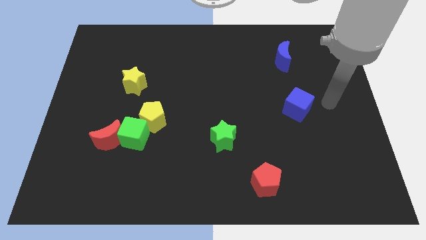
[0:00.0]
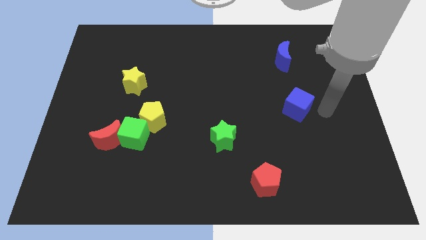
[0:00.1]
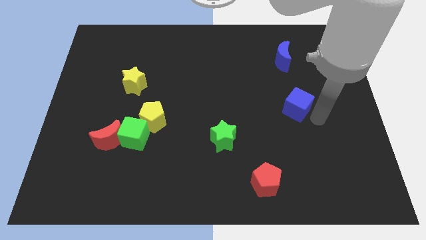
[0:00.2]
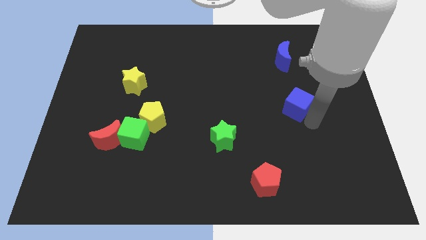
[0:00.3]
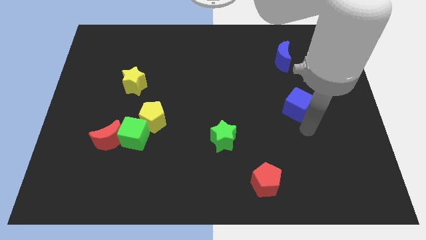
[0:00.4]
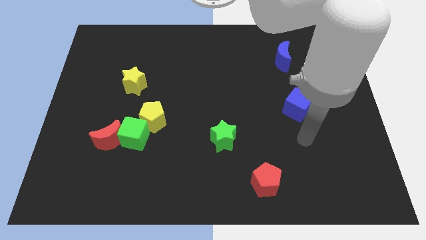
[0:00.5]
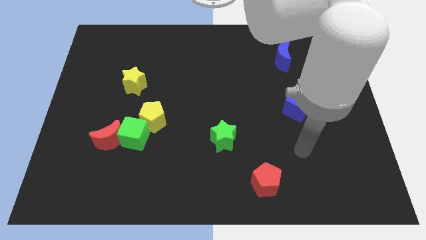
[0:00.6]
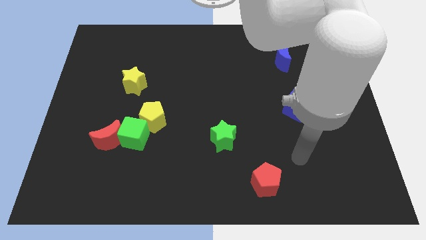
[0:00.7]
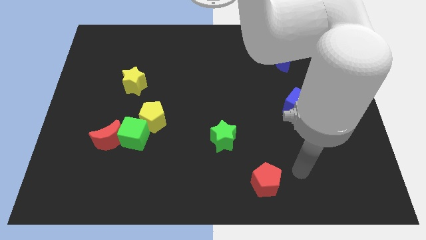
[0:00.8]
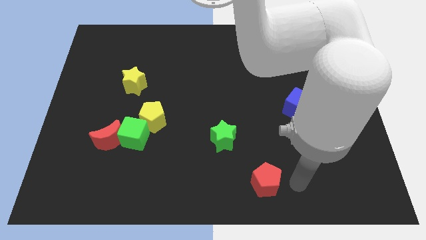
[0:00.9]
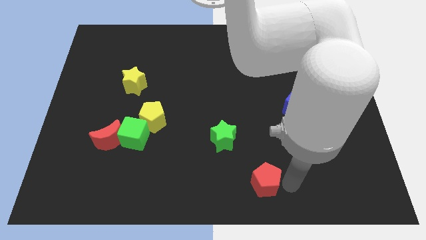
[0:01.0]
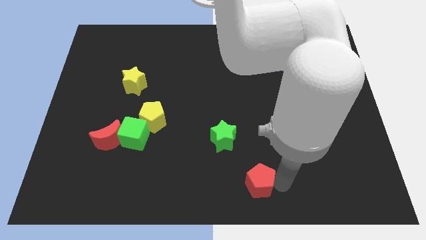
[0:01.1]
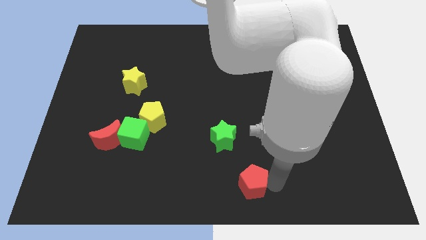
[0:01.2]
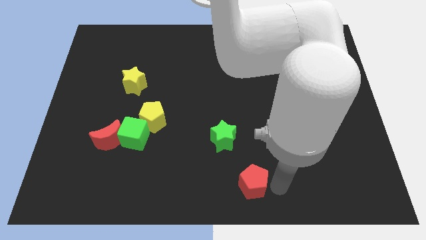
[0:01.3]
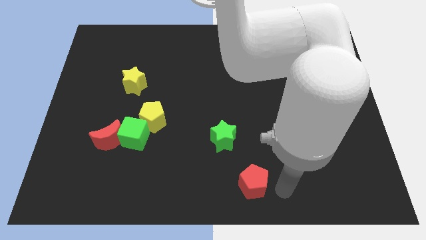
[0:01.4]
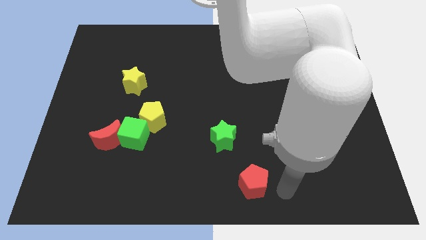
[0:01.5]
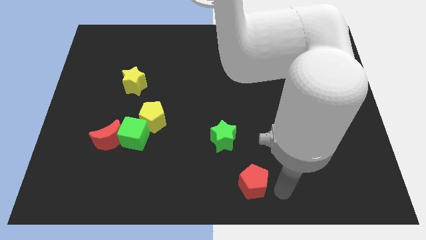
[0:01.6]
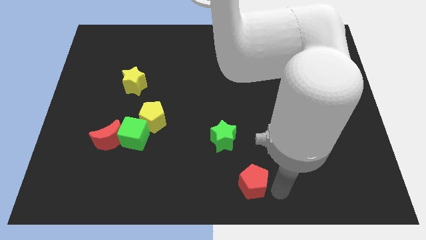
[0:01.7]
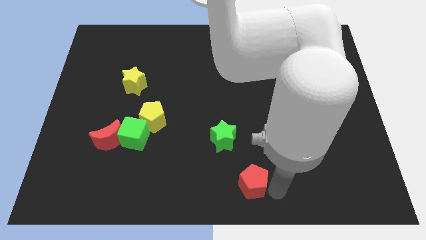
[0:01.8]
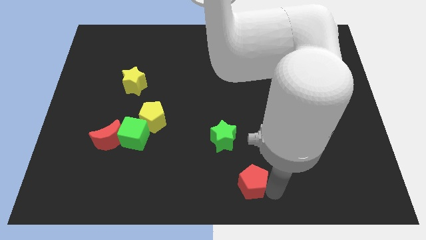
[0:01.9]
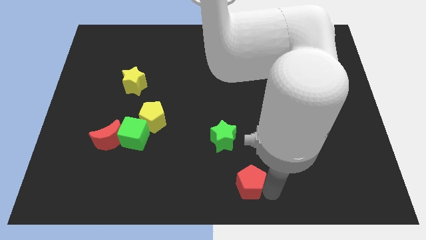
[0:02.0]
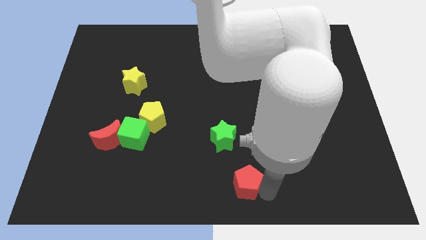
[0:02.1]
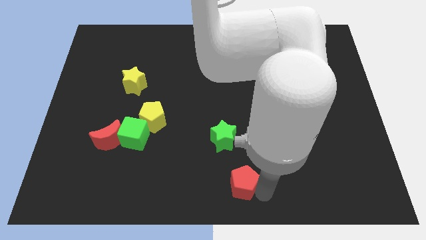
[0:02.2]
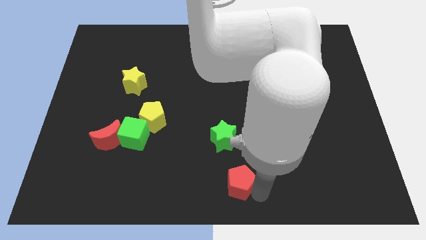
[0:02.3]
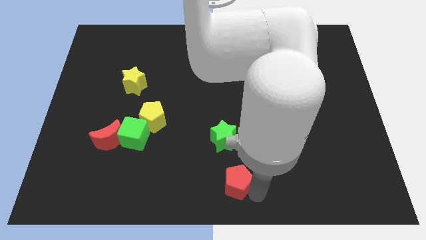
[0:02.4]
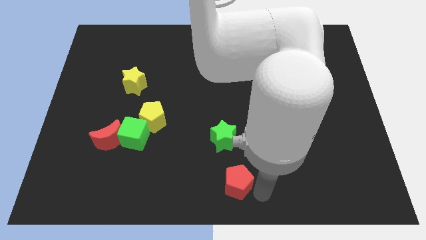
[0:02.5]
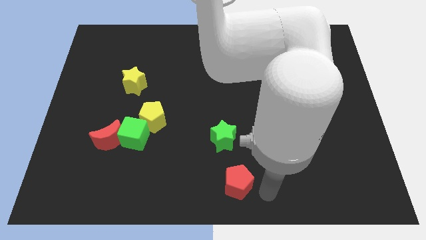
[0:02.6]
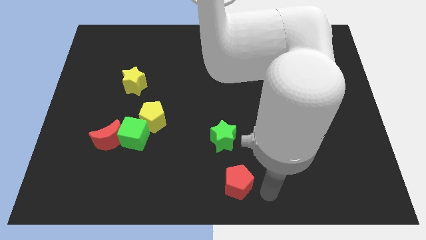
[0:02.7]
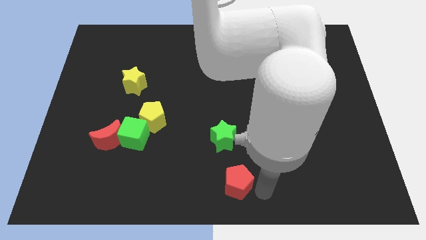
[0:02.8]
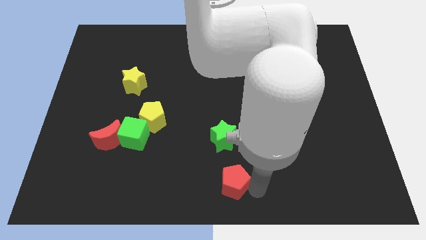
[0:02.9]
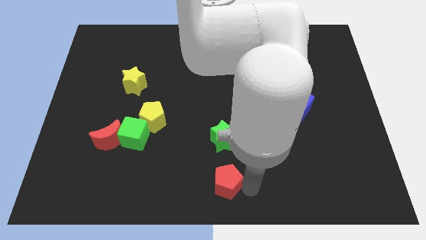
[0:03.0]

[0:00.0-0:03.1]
slightly push the red pentagon to the left

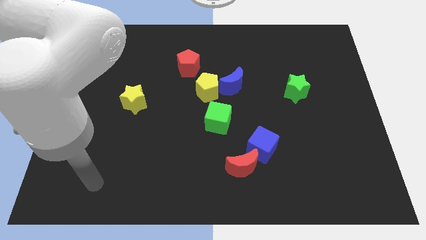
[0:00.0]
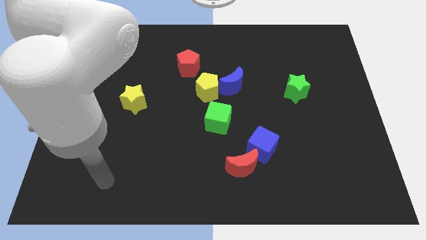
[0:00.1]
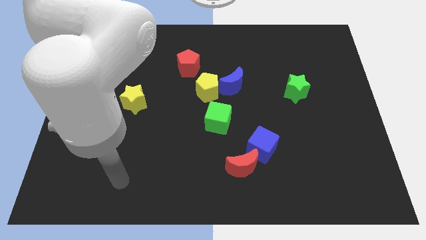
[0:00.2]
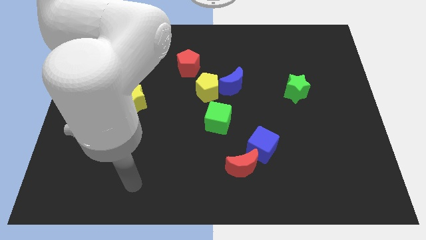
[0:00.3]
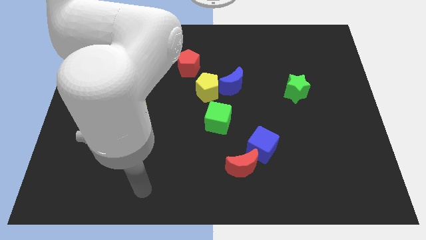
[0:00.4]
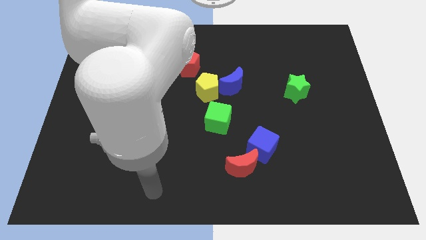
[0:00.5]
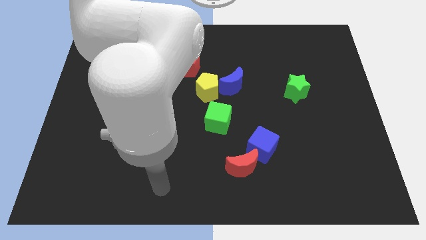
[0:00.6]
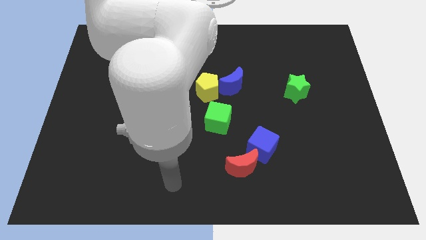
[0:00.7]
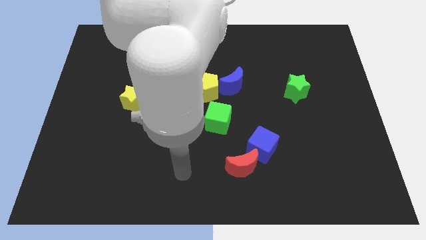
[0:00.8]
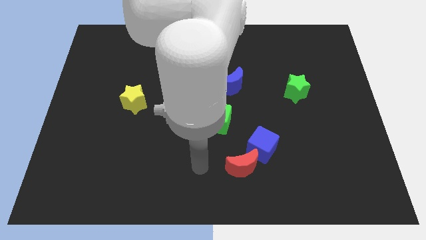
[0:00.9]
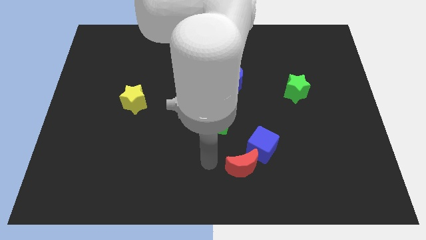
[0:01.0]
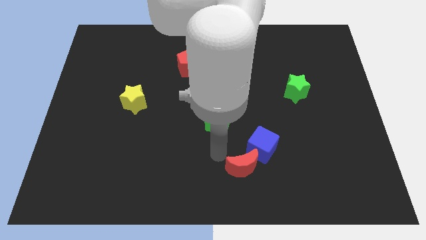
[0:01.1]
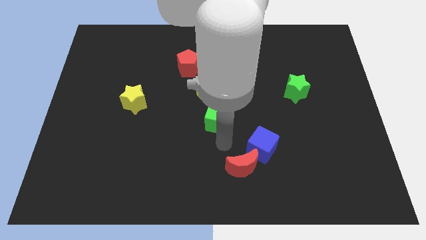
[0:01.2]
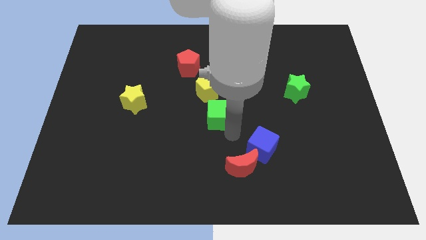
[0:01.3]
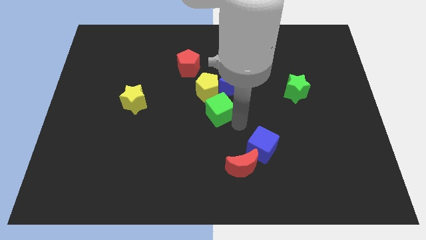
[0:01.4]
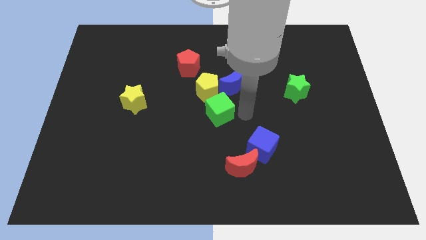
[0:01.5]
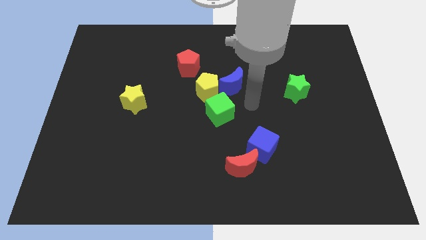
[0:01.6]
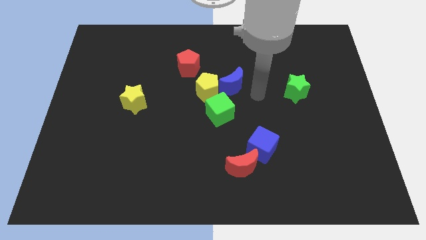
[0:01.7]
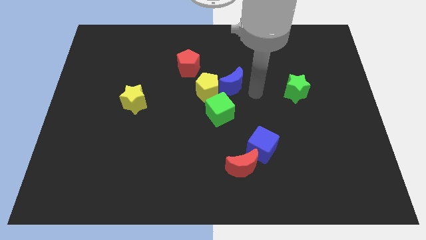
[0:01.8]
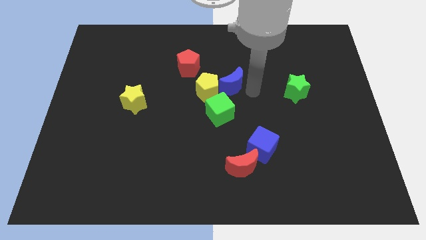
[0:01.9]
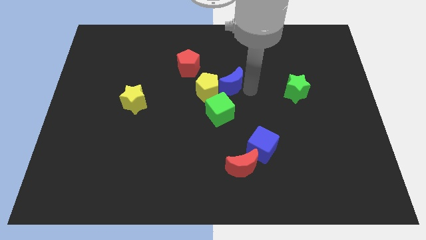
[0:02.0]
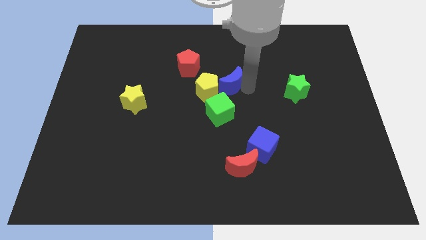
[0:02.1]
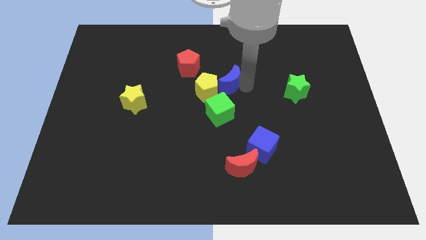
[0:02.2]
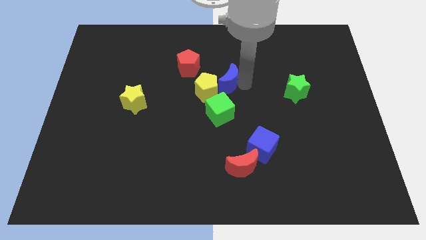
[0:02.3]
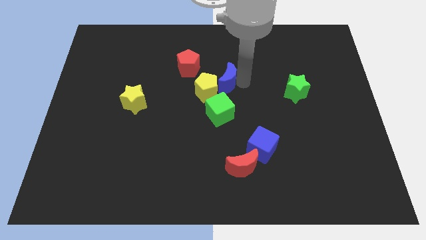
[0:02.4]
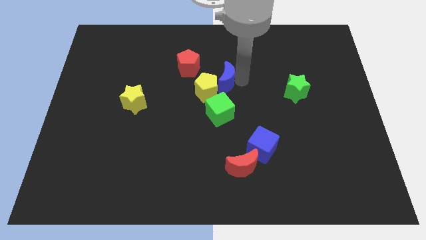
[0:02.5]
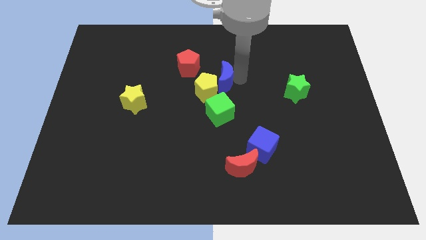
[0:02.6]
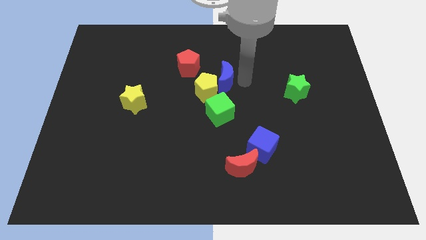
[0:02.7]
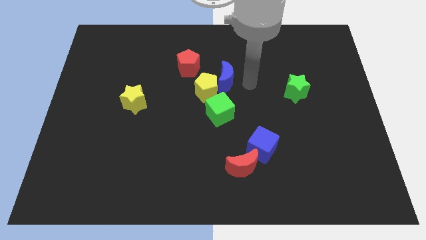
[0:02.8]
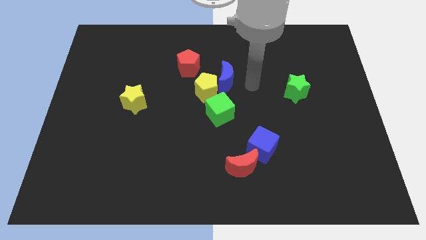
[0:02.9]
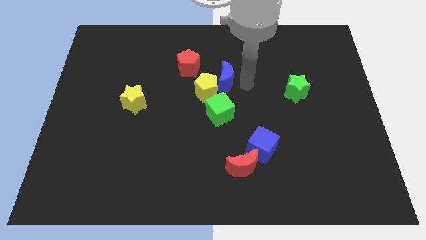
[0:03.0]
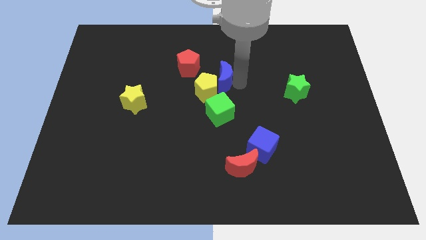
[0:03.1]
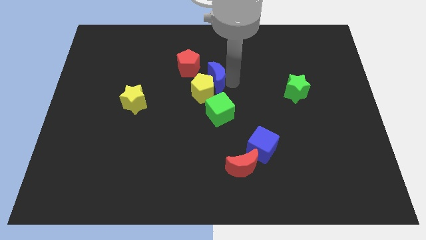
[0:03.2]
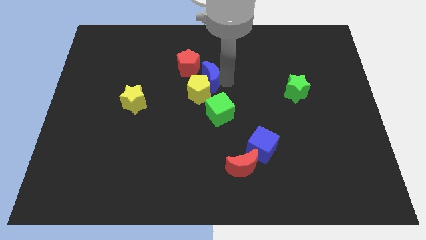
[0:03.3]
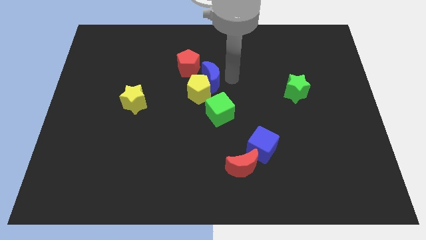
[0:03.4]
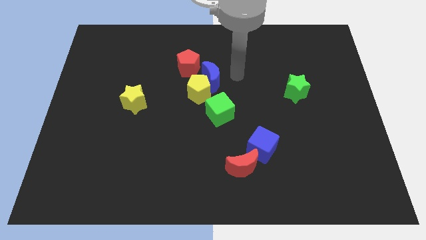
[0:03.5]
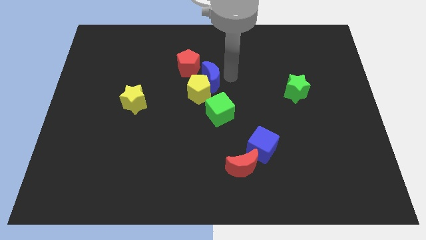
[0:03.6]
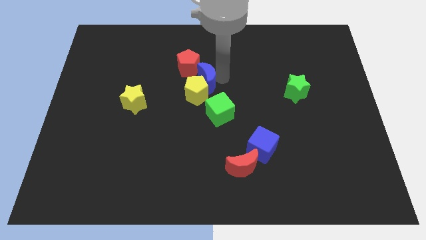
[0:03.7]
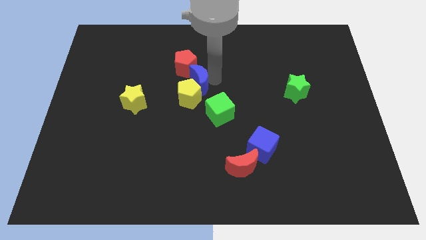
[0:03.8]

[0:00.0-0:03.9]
slide the blue moon a bit left

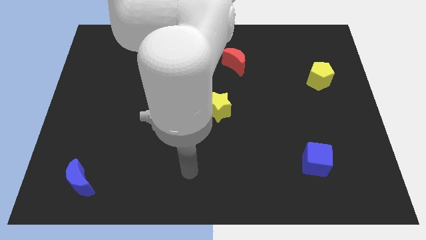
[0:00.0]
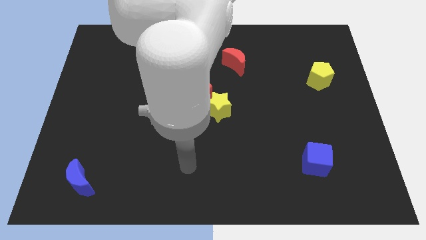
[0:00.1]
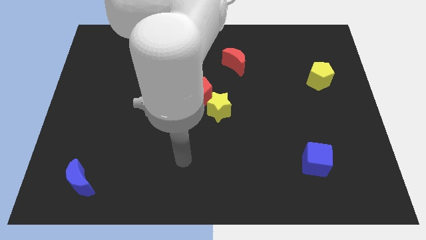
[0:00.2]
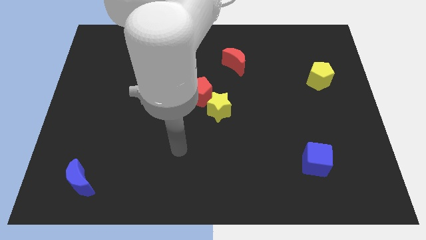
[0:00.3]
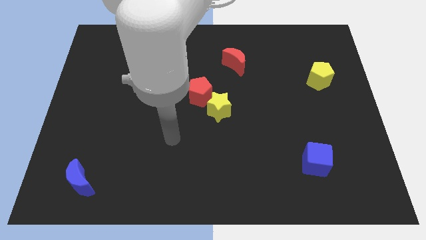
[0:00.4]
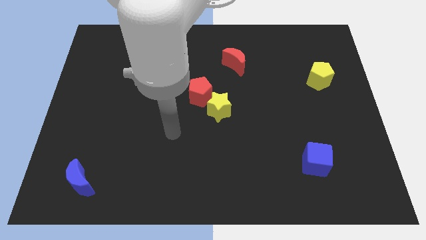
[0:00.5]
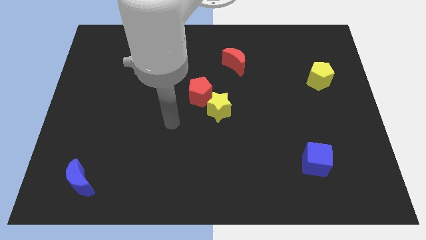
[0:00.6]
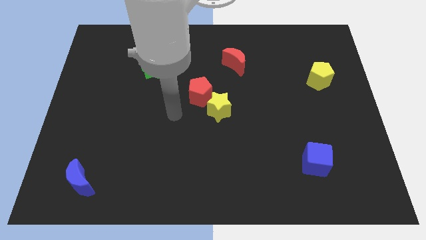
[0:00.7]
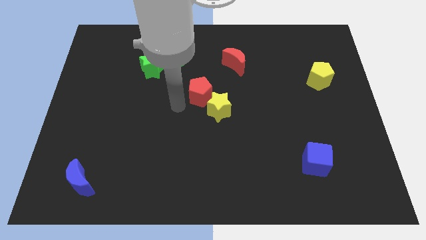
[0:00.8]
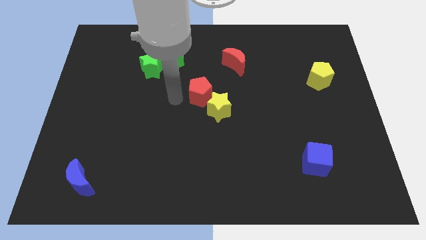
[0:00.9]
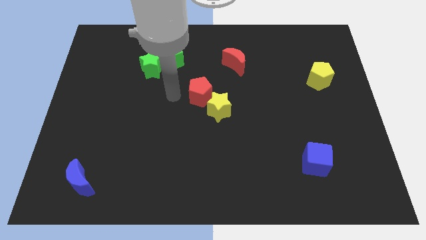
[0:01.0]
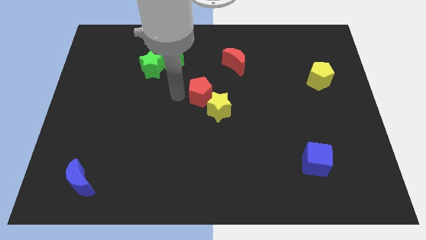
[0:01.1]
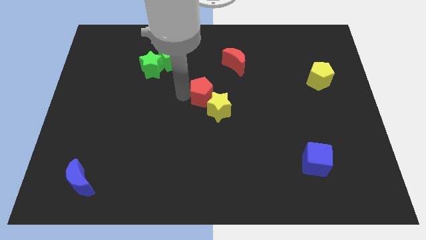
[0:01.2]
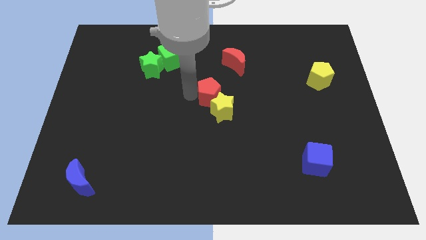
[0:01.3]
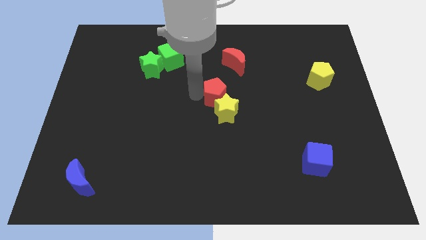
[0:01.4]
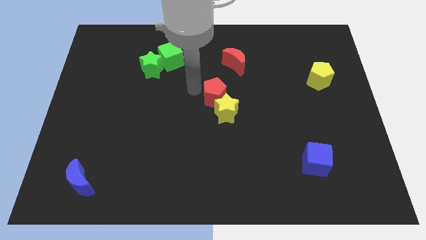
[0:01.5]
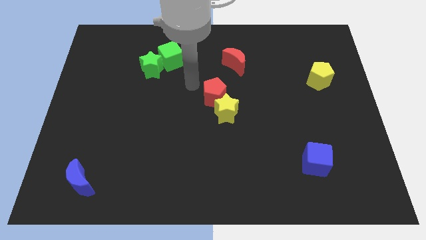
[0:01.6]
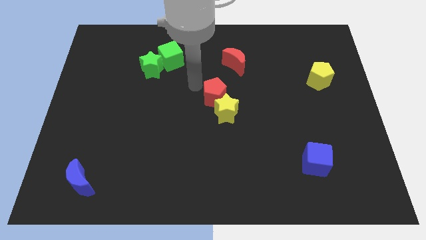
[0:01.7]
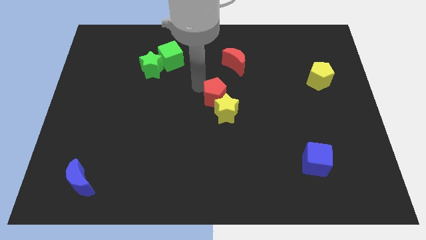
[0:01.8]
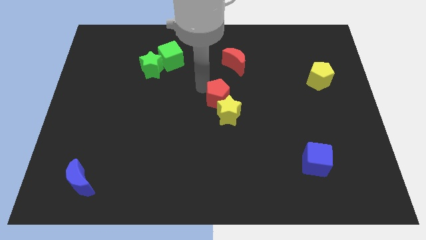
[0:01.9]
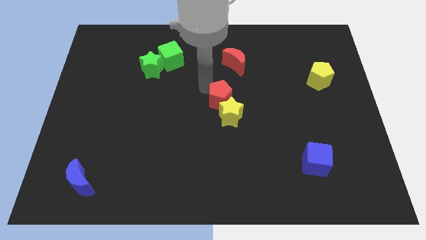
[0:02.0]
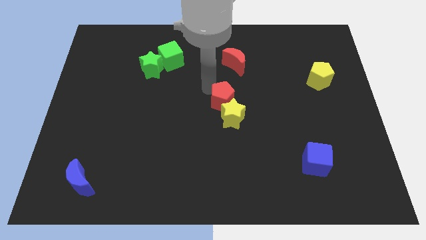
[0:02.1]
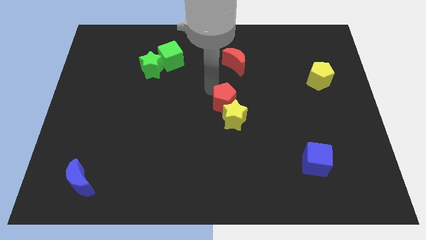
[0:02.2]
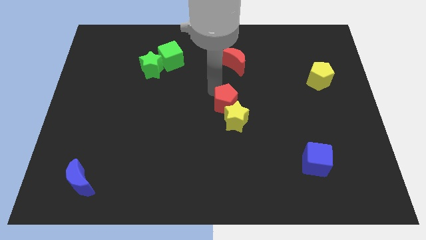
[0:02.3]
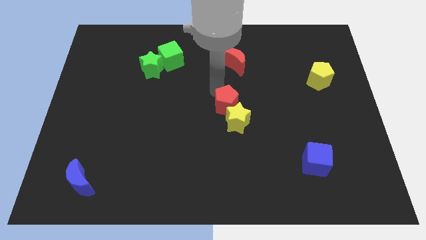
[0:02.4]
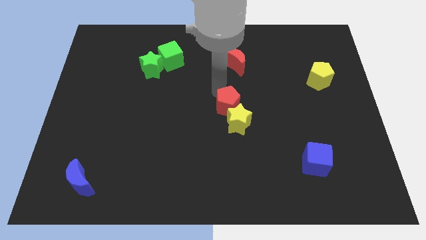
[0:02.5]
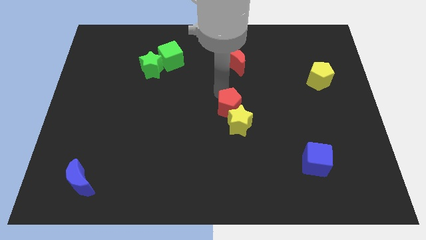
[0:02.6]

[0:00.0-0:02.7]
slightly push the red pentagon down and then to the right
